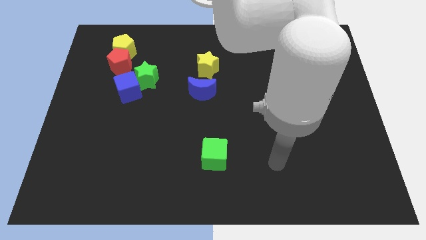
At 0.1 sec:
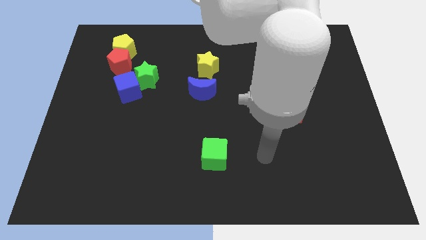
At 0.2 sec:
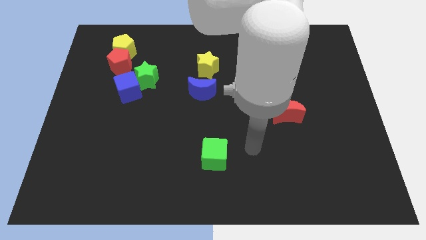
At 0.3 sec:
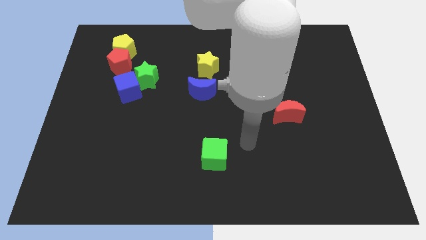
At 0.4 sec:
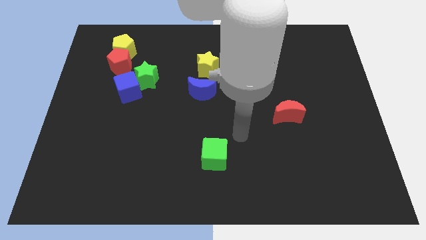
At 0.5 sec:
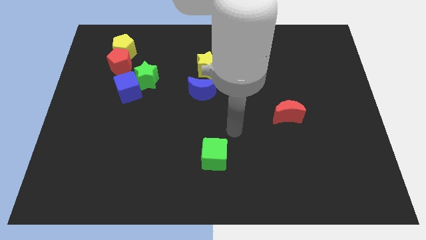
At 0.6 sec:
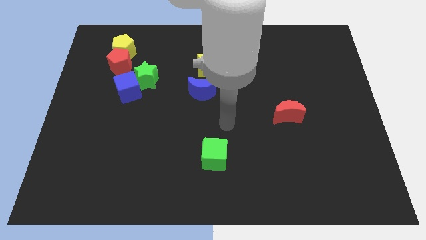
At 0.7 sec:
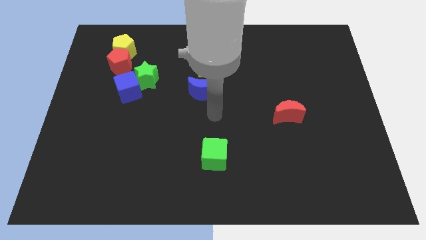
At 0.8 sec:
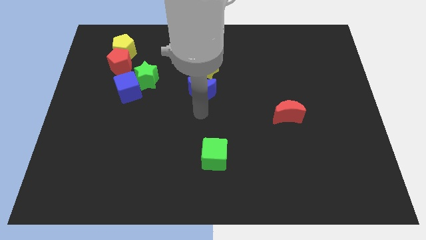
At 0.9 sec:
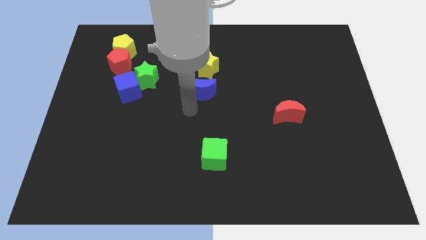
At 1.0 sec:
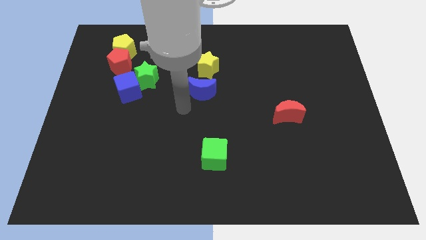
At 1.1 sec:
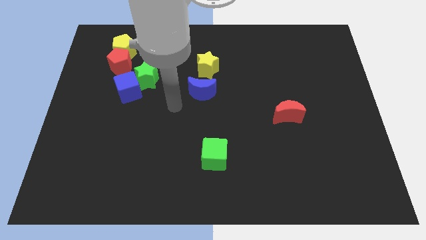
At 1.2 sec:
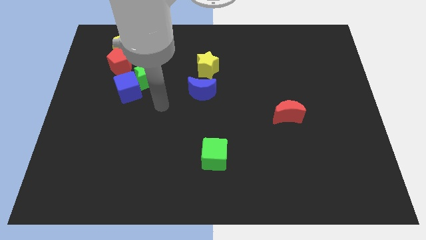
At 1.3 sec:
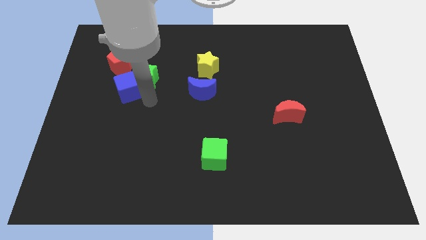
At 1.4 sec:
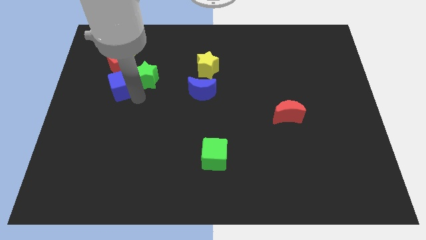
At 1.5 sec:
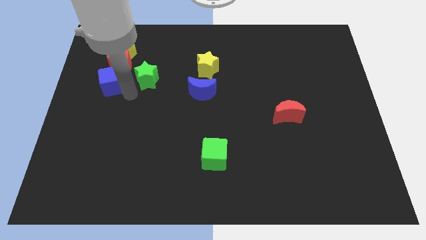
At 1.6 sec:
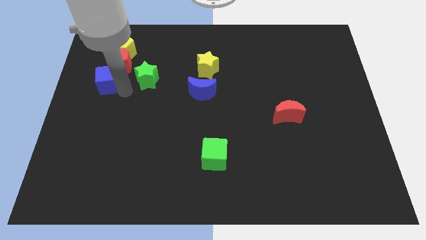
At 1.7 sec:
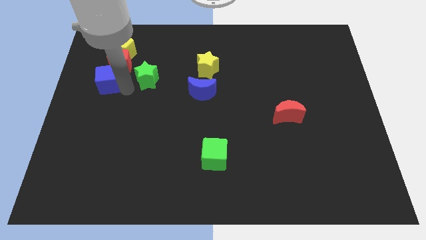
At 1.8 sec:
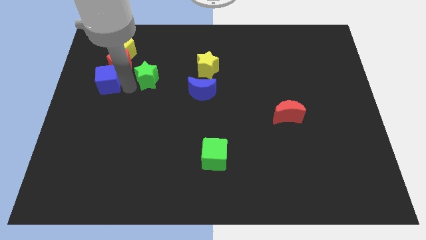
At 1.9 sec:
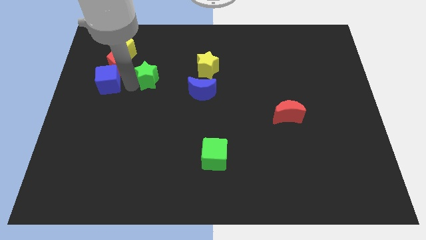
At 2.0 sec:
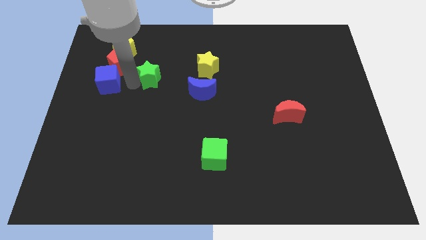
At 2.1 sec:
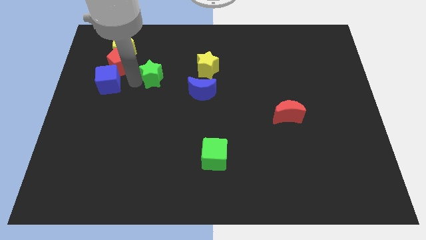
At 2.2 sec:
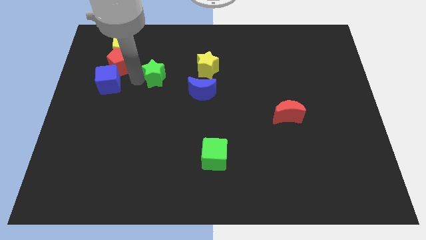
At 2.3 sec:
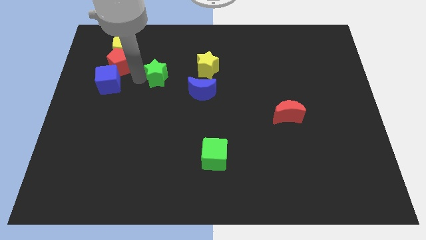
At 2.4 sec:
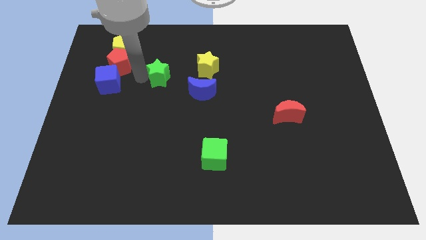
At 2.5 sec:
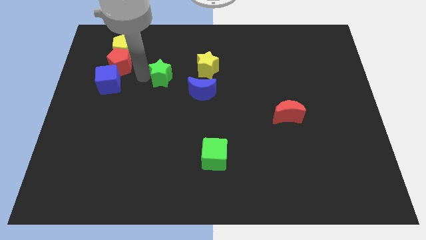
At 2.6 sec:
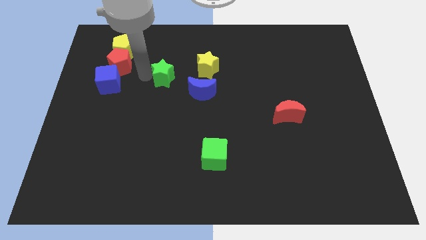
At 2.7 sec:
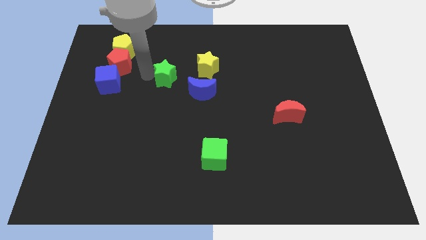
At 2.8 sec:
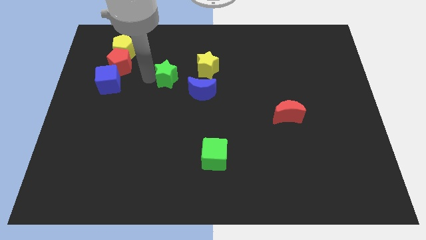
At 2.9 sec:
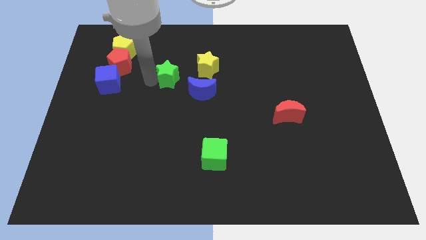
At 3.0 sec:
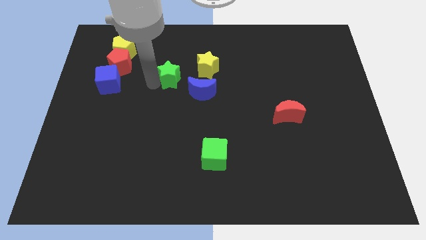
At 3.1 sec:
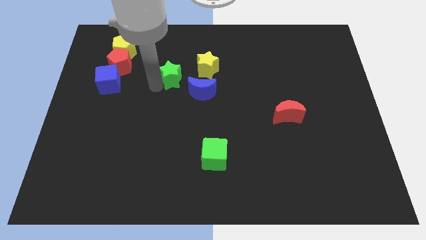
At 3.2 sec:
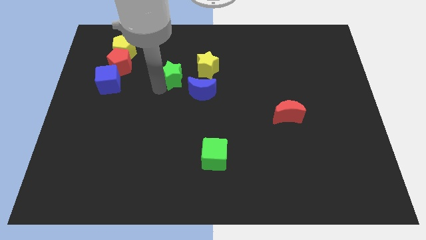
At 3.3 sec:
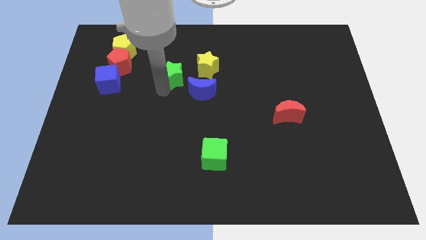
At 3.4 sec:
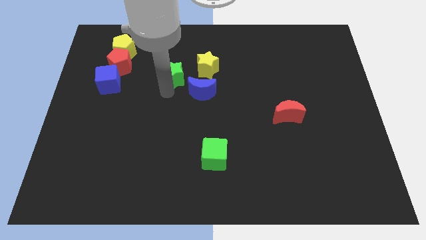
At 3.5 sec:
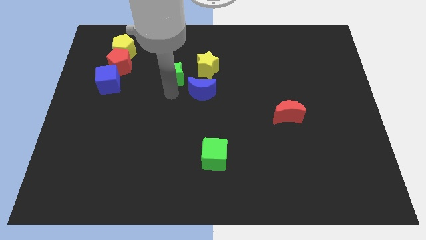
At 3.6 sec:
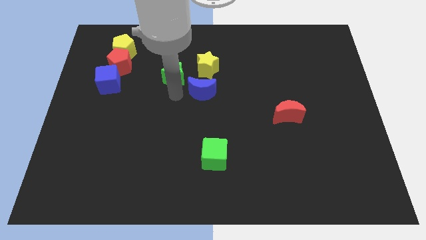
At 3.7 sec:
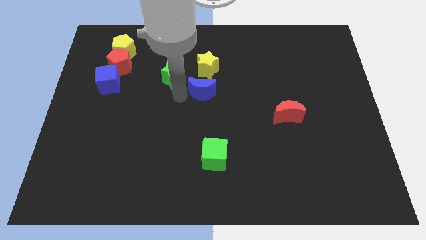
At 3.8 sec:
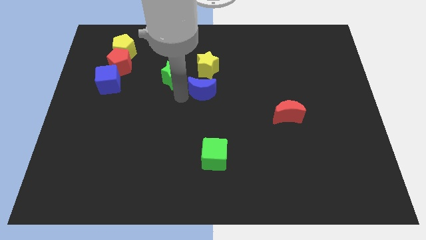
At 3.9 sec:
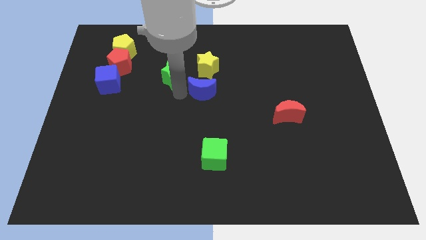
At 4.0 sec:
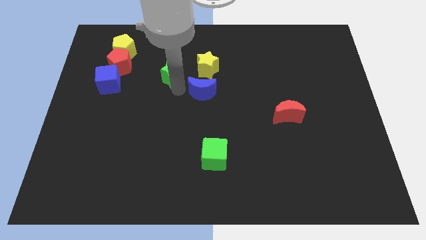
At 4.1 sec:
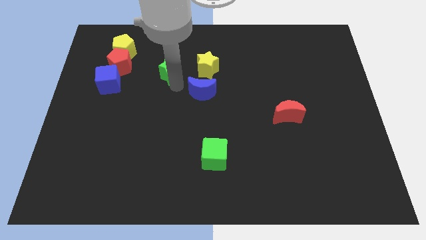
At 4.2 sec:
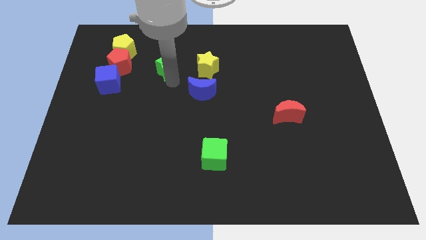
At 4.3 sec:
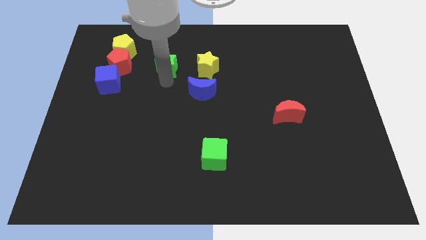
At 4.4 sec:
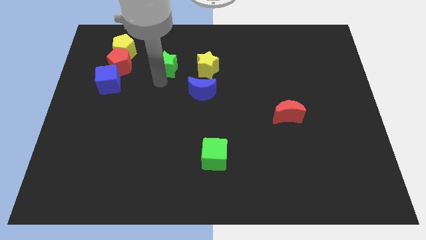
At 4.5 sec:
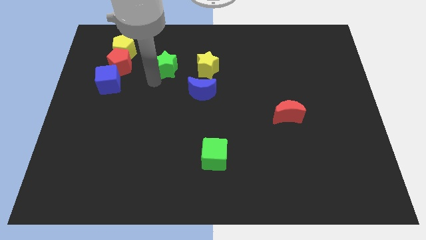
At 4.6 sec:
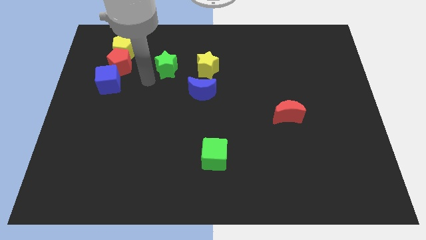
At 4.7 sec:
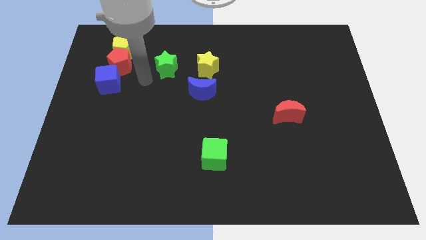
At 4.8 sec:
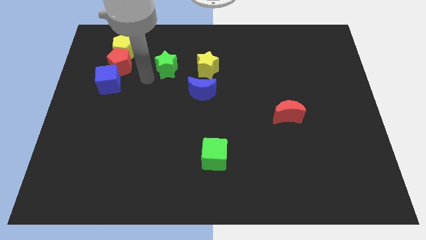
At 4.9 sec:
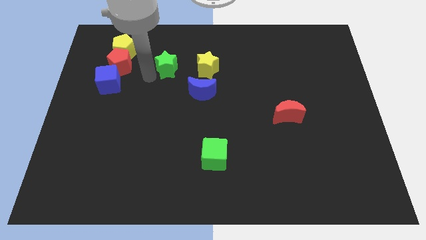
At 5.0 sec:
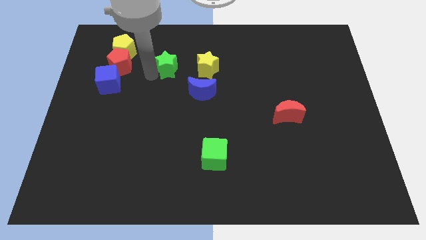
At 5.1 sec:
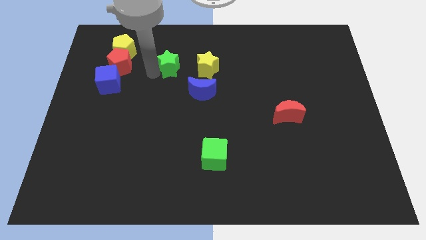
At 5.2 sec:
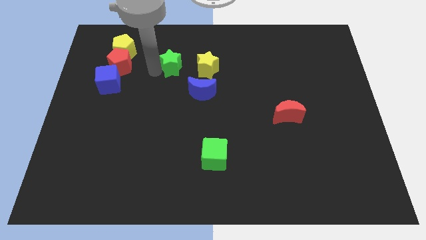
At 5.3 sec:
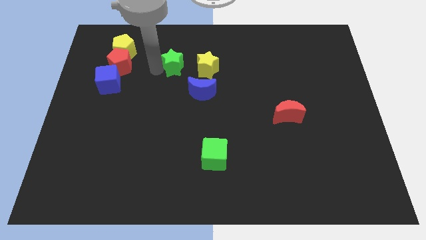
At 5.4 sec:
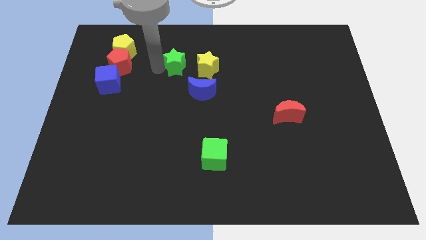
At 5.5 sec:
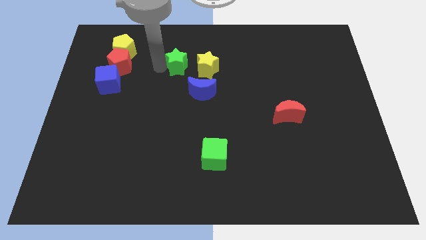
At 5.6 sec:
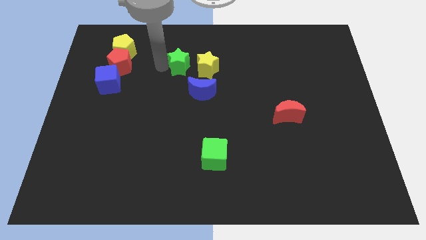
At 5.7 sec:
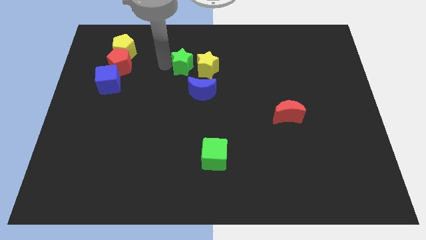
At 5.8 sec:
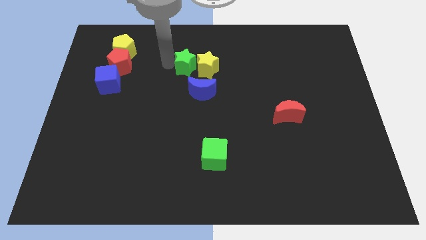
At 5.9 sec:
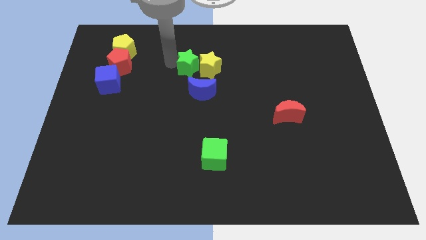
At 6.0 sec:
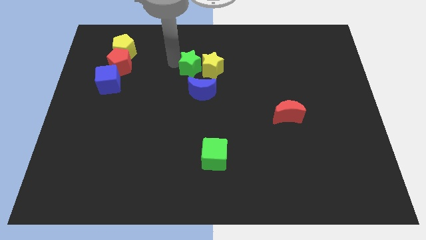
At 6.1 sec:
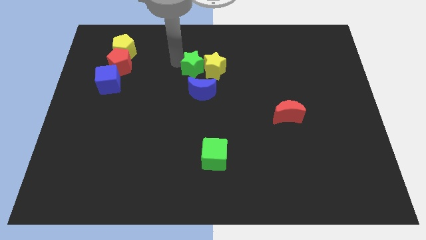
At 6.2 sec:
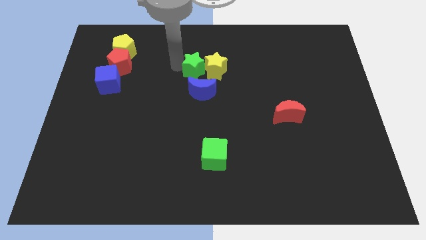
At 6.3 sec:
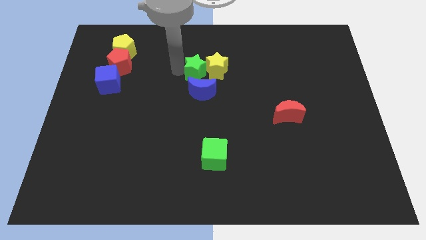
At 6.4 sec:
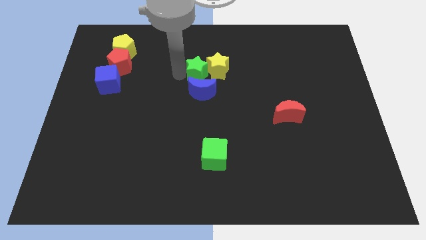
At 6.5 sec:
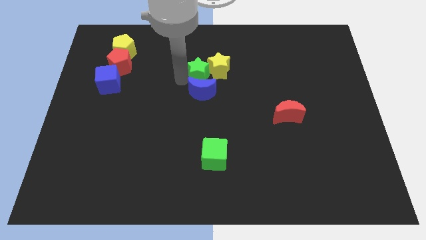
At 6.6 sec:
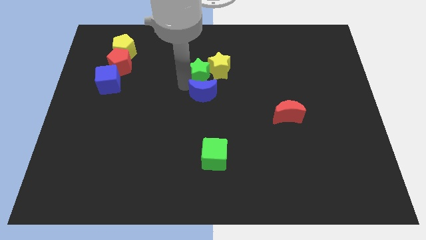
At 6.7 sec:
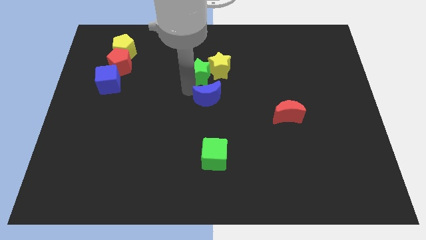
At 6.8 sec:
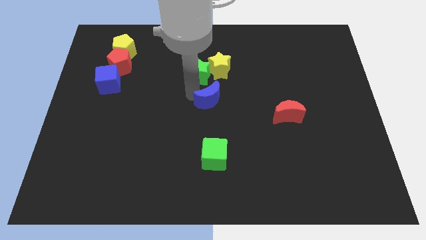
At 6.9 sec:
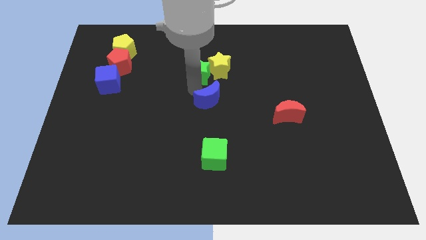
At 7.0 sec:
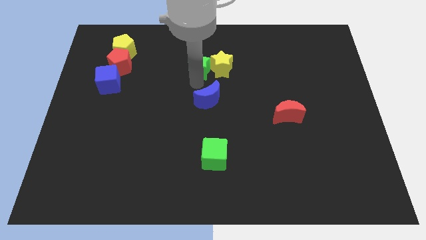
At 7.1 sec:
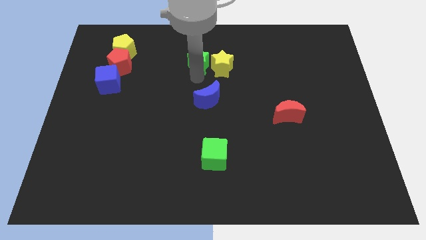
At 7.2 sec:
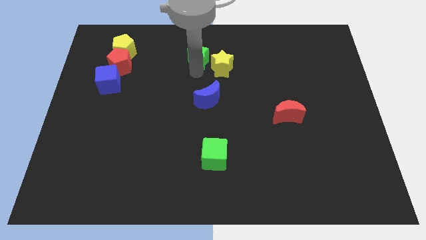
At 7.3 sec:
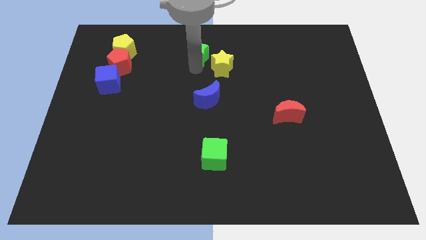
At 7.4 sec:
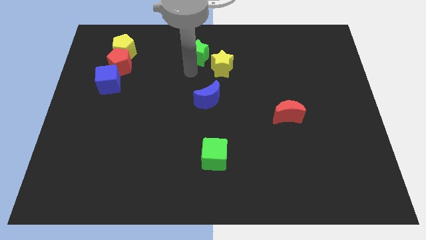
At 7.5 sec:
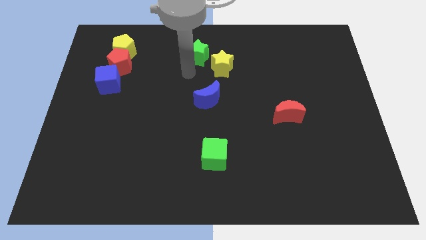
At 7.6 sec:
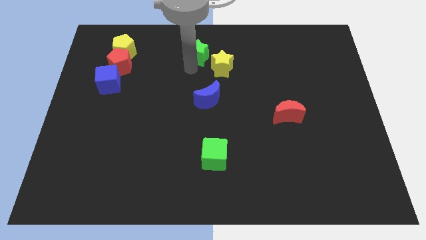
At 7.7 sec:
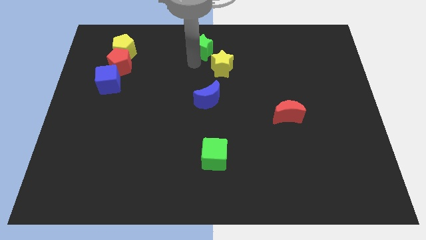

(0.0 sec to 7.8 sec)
move the green star to the towards your base
